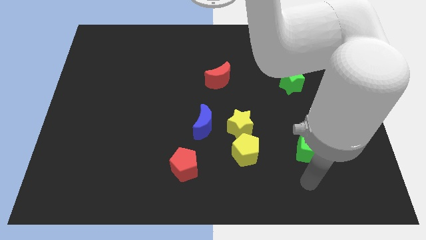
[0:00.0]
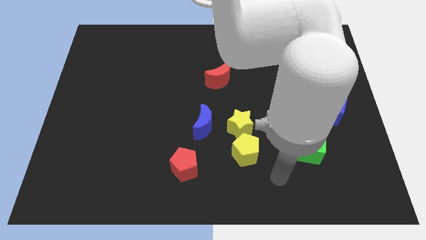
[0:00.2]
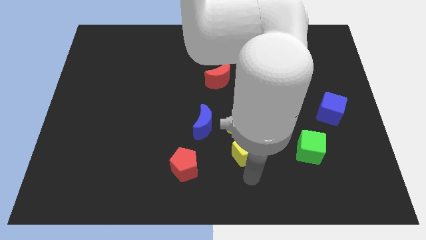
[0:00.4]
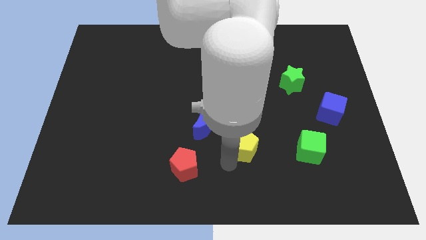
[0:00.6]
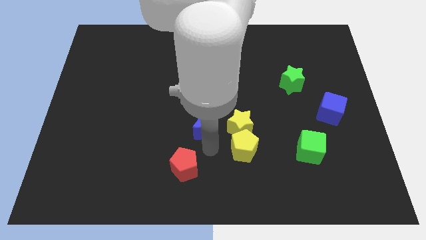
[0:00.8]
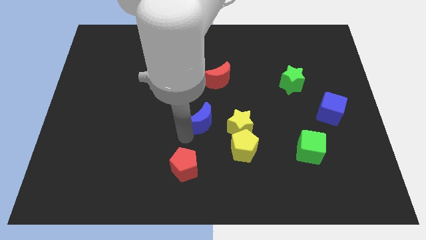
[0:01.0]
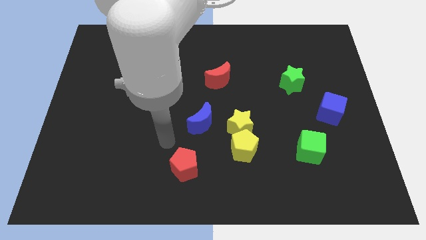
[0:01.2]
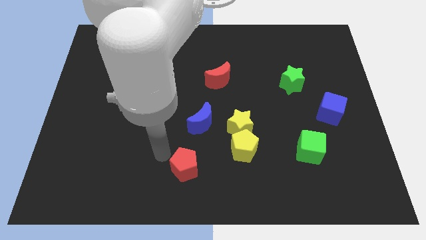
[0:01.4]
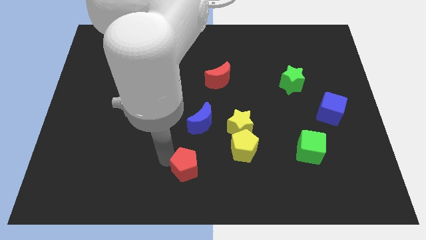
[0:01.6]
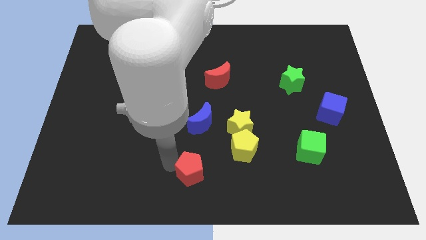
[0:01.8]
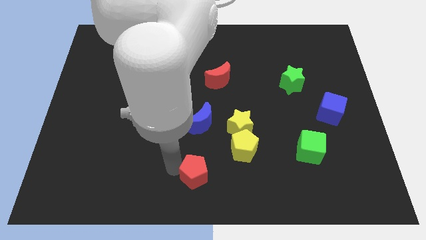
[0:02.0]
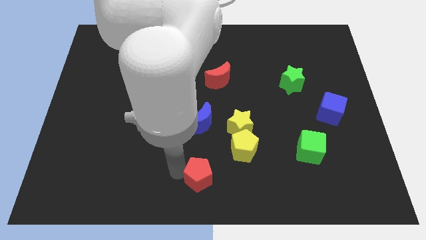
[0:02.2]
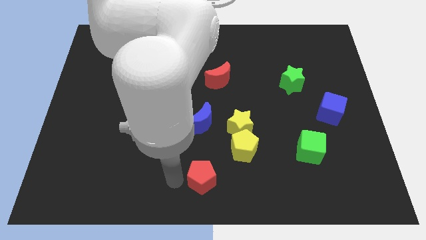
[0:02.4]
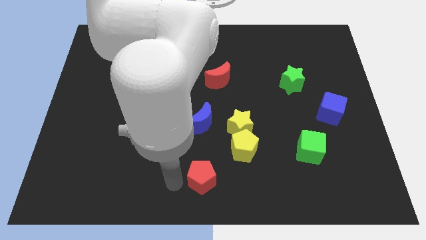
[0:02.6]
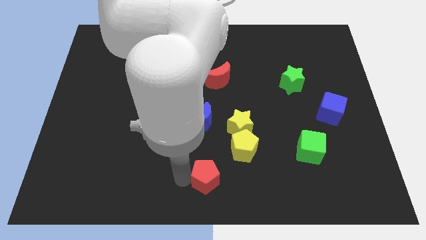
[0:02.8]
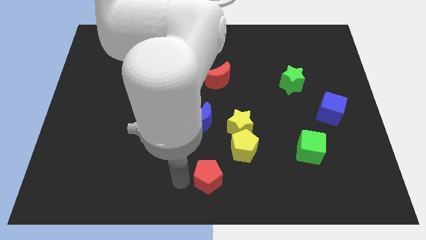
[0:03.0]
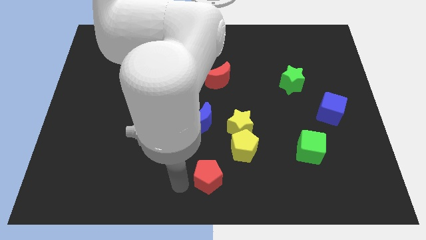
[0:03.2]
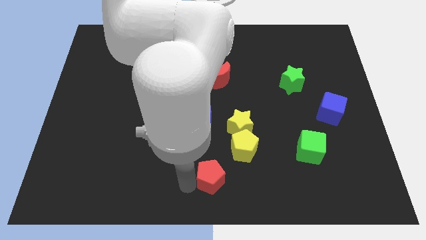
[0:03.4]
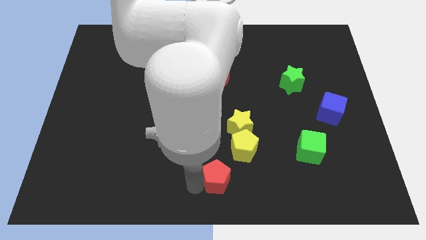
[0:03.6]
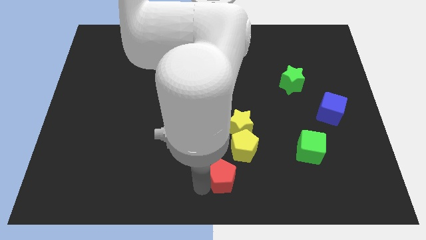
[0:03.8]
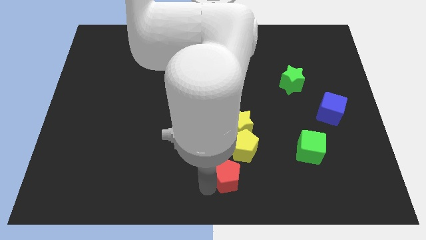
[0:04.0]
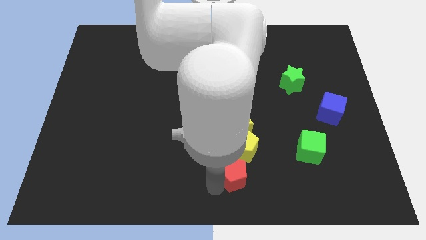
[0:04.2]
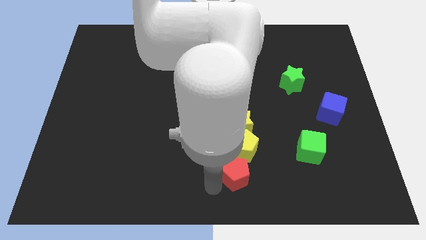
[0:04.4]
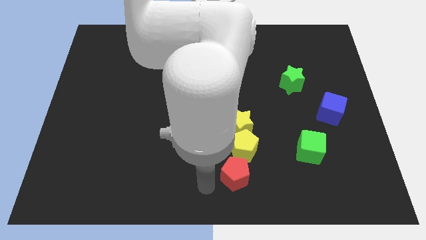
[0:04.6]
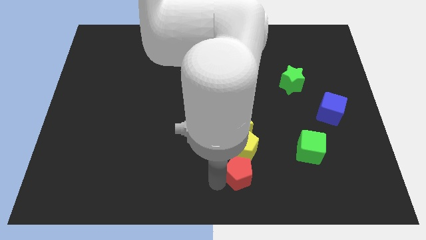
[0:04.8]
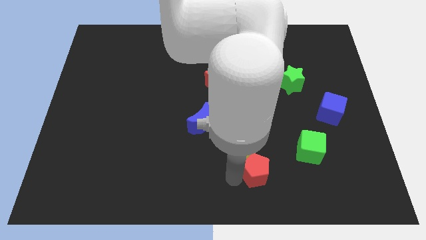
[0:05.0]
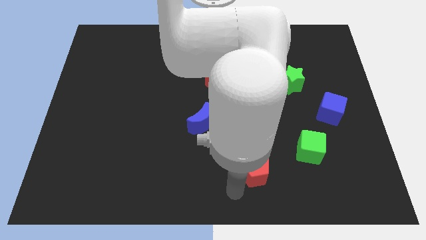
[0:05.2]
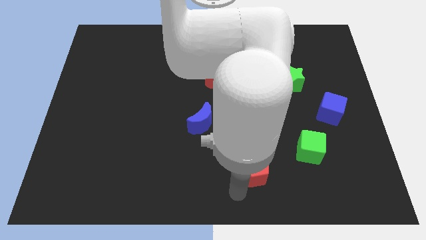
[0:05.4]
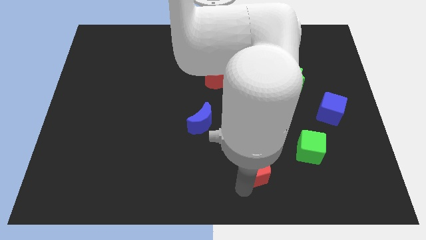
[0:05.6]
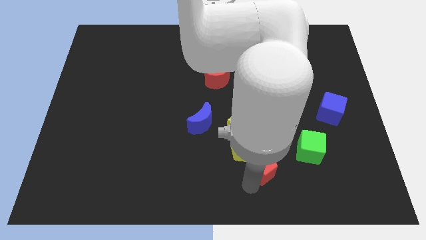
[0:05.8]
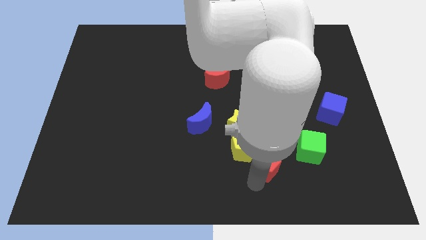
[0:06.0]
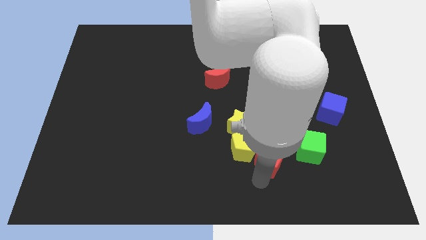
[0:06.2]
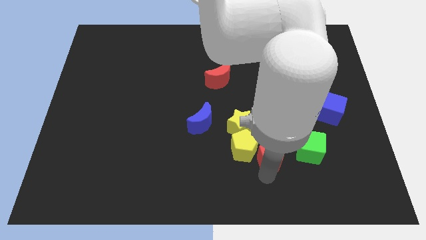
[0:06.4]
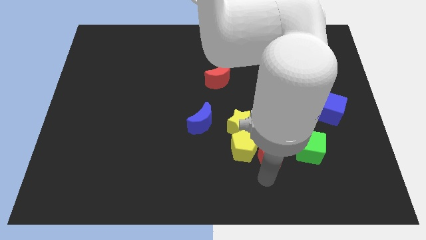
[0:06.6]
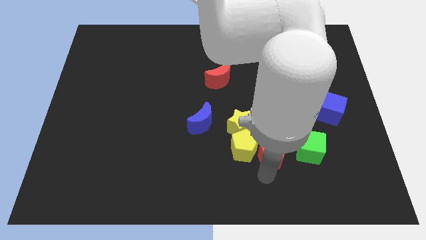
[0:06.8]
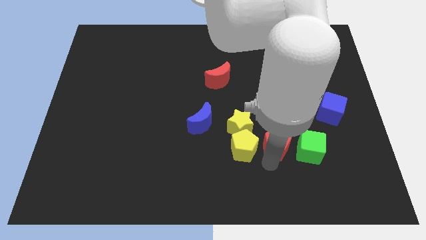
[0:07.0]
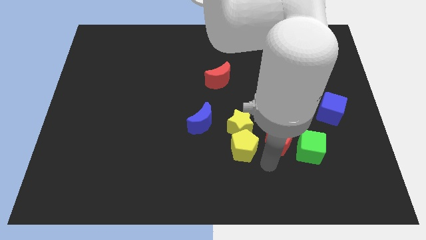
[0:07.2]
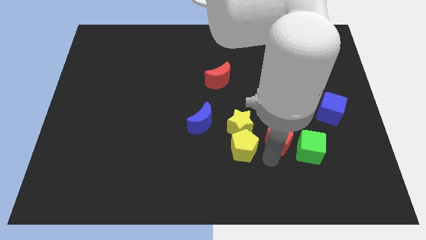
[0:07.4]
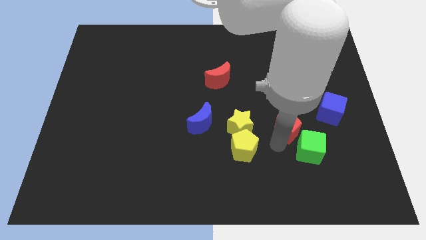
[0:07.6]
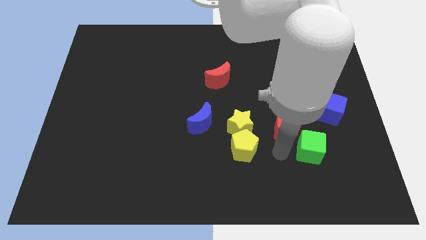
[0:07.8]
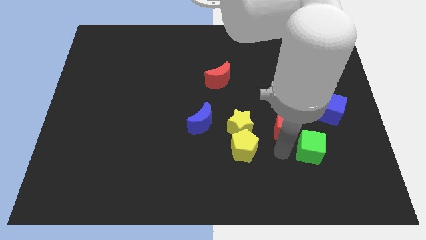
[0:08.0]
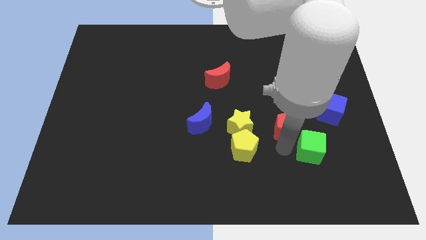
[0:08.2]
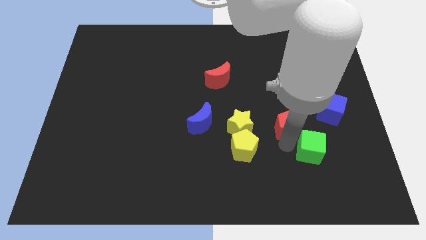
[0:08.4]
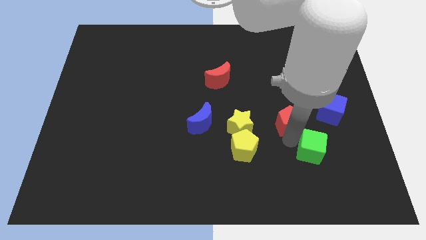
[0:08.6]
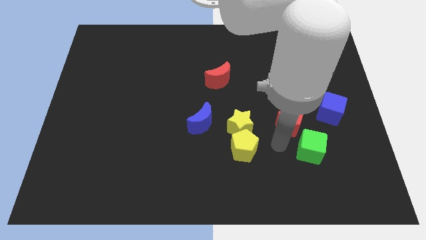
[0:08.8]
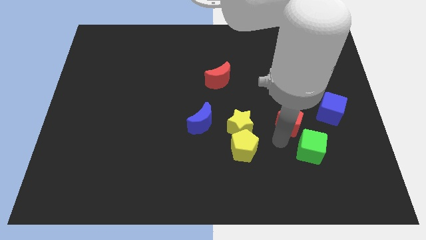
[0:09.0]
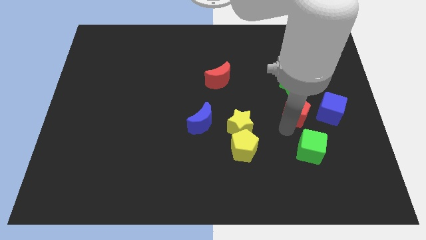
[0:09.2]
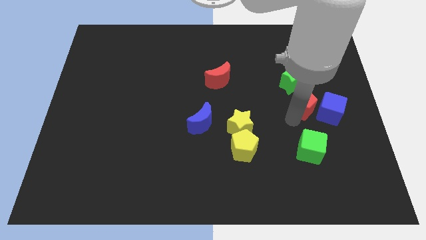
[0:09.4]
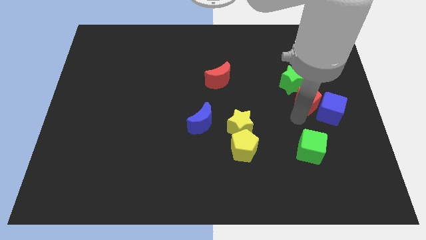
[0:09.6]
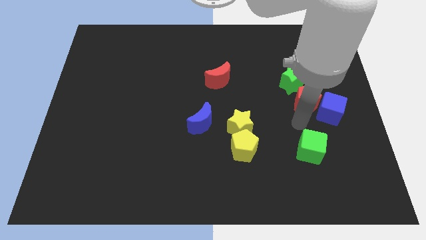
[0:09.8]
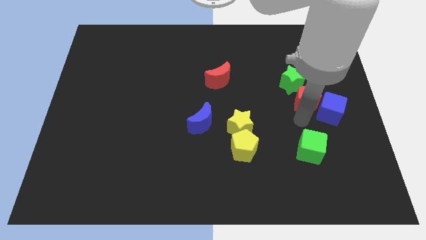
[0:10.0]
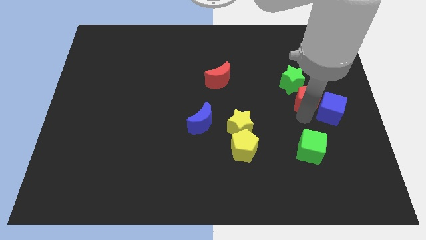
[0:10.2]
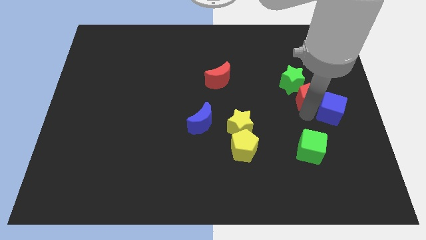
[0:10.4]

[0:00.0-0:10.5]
move the red pentagon to the top side of the blue cube

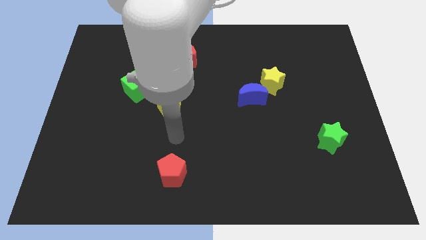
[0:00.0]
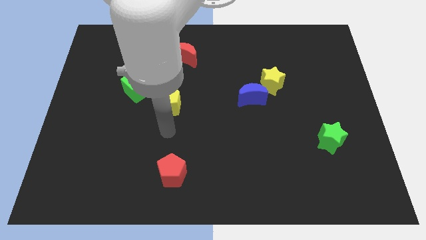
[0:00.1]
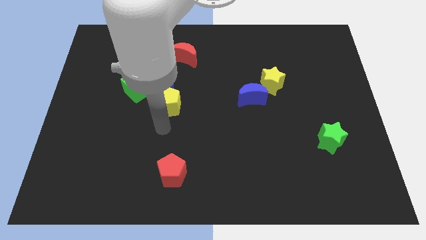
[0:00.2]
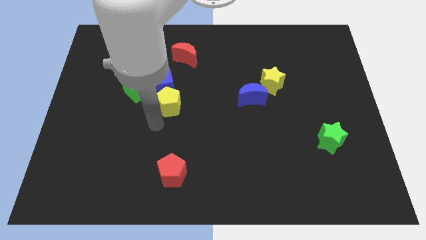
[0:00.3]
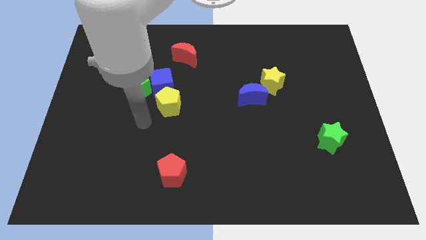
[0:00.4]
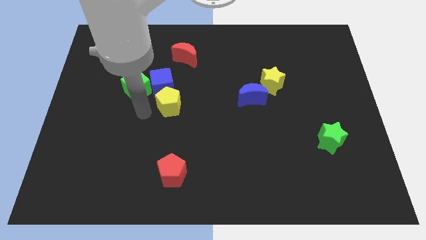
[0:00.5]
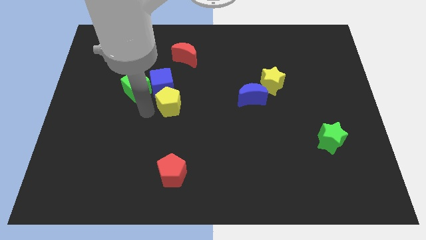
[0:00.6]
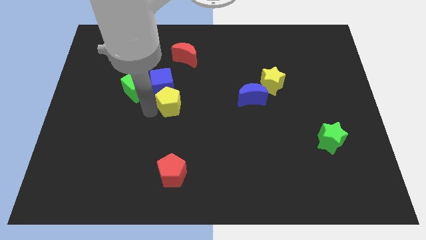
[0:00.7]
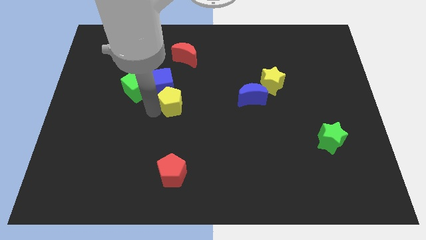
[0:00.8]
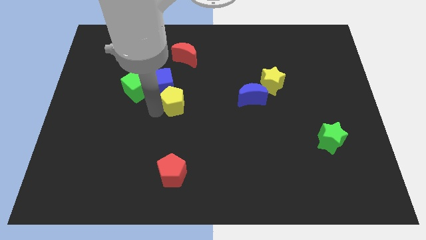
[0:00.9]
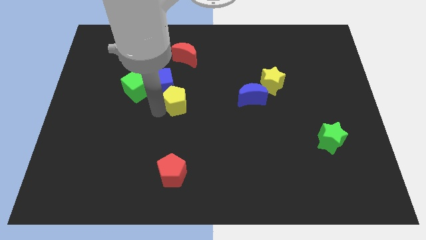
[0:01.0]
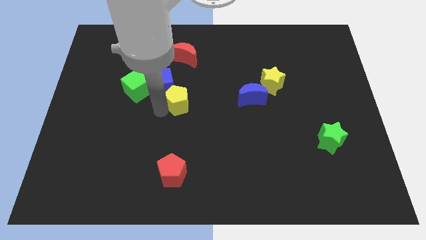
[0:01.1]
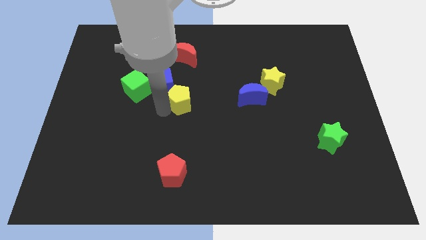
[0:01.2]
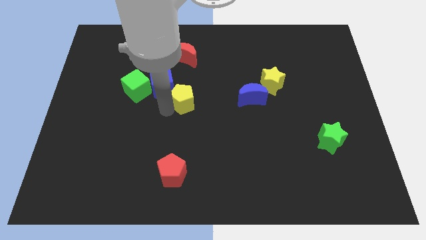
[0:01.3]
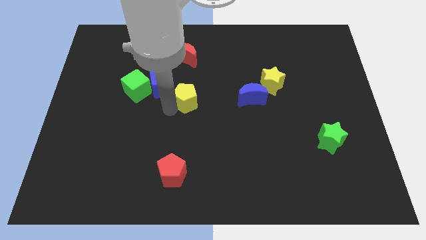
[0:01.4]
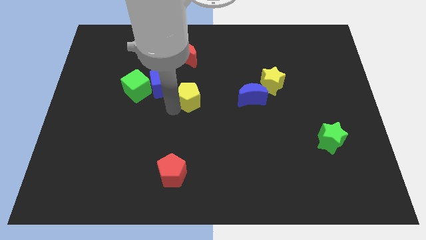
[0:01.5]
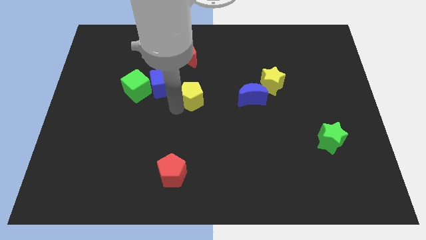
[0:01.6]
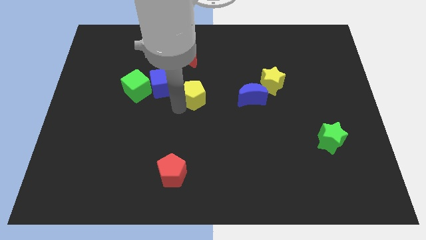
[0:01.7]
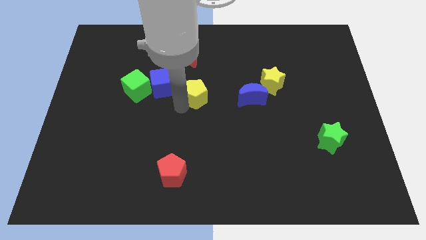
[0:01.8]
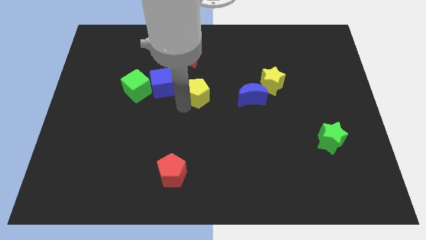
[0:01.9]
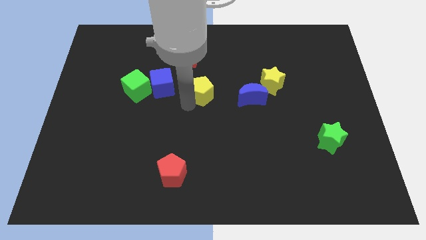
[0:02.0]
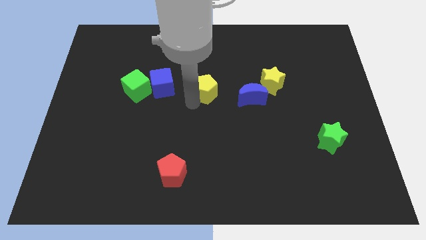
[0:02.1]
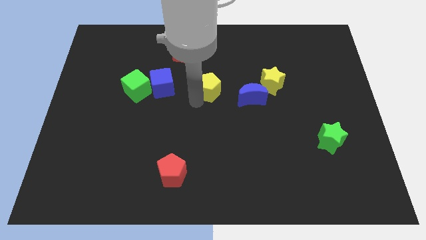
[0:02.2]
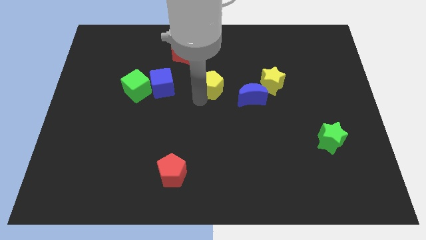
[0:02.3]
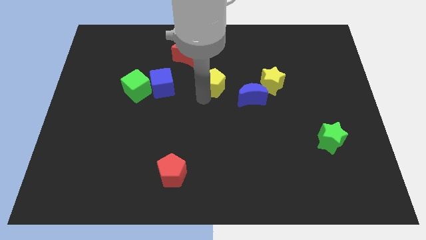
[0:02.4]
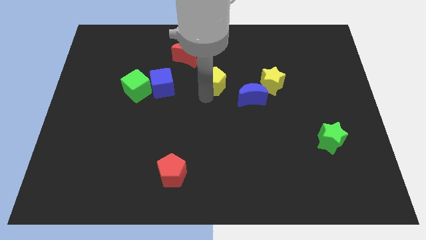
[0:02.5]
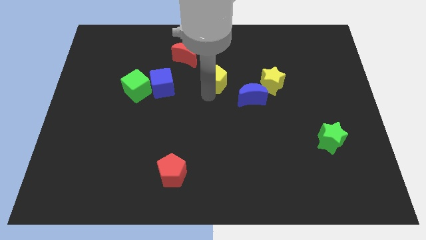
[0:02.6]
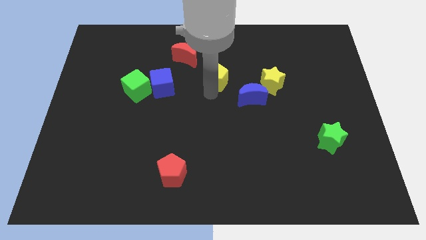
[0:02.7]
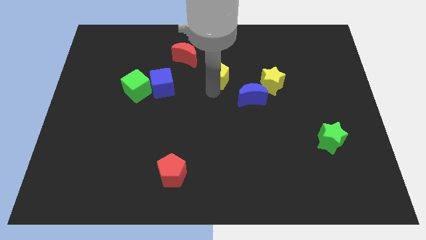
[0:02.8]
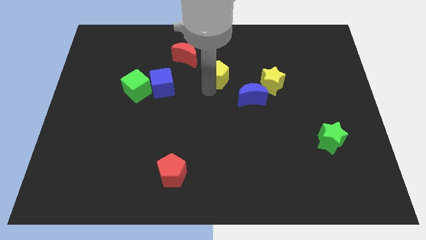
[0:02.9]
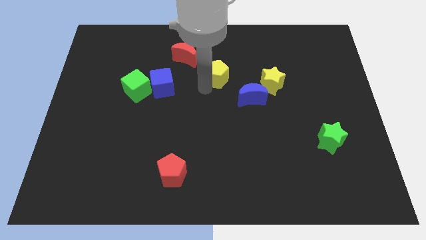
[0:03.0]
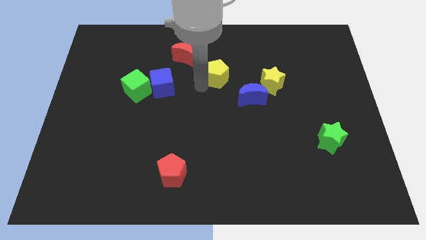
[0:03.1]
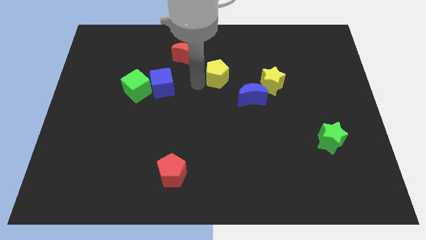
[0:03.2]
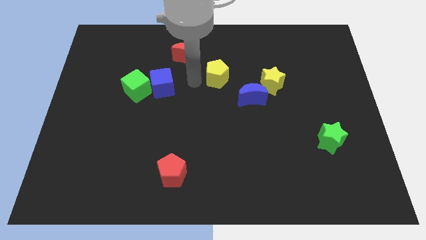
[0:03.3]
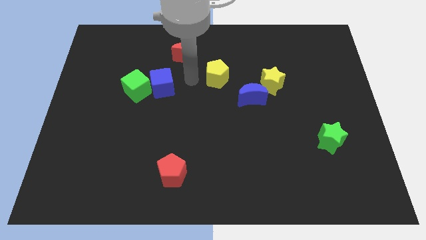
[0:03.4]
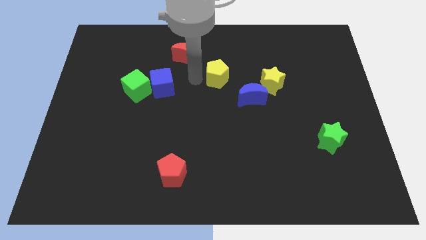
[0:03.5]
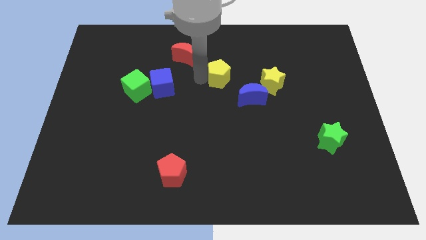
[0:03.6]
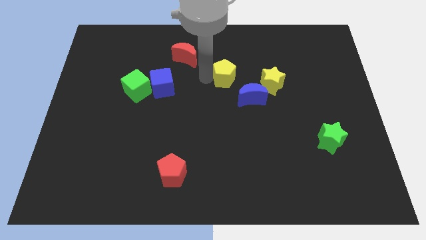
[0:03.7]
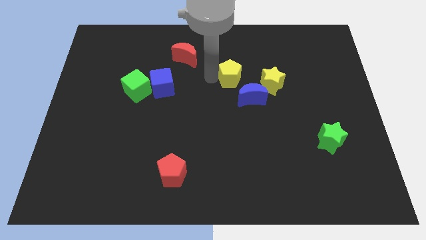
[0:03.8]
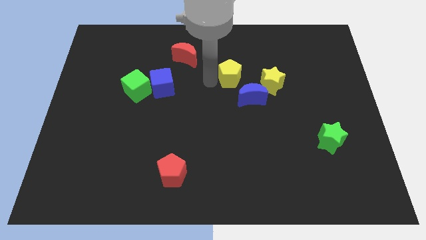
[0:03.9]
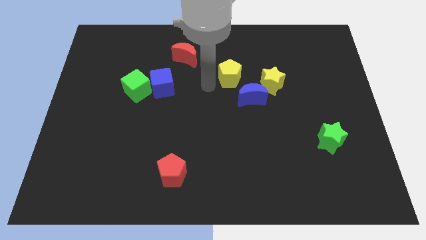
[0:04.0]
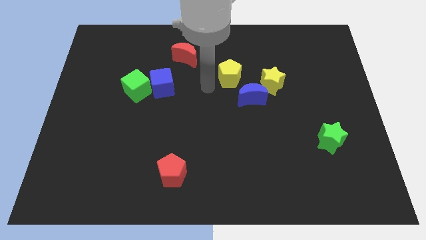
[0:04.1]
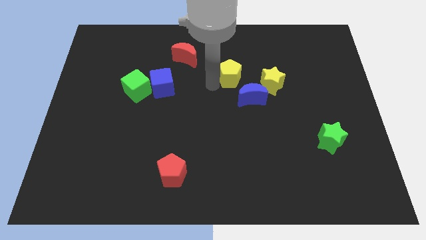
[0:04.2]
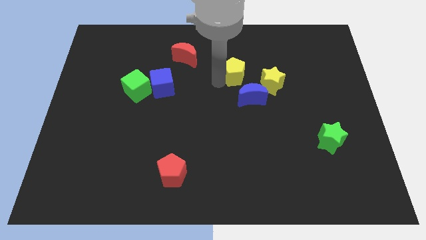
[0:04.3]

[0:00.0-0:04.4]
put the yellow pentagon above the blue moon
